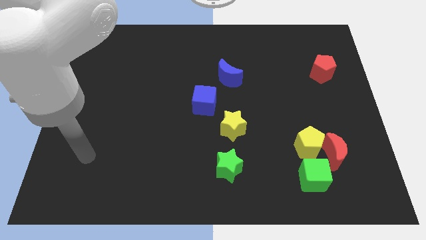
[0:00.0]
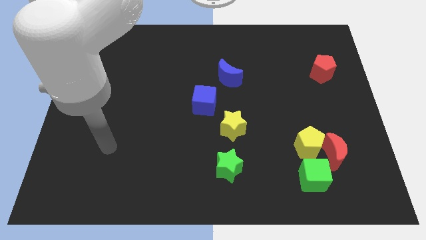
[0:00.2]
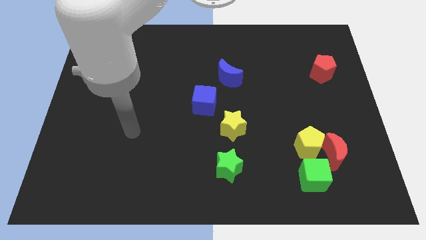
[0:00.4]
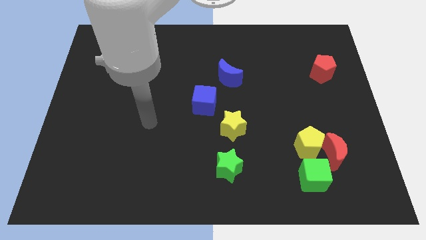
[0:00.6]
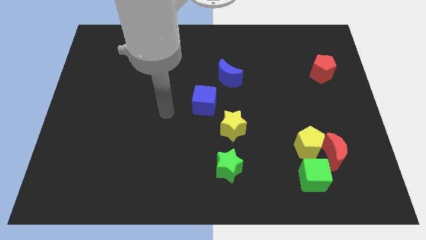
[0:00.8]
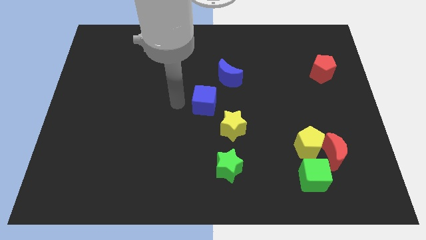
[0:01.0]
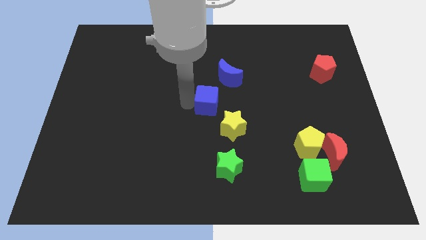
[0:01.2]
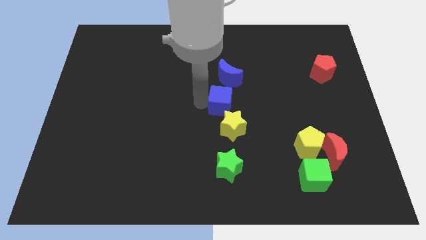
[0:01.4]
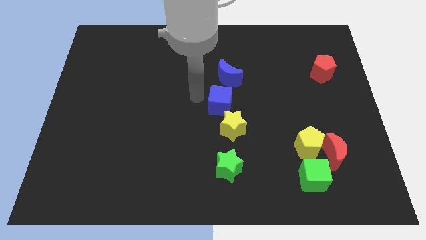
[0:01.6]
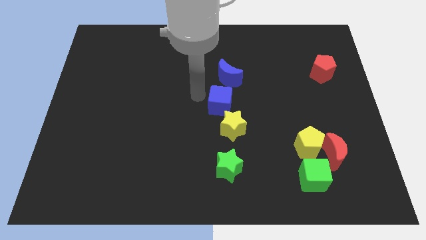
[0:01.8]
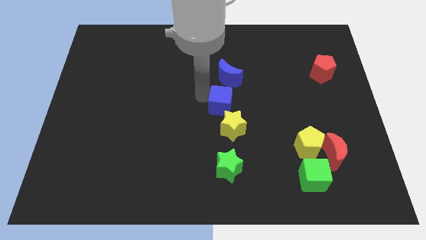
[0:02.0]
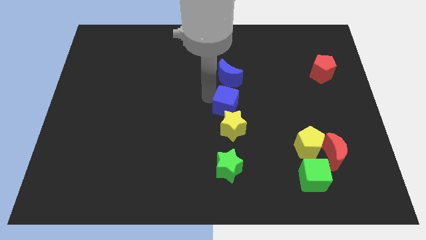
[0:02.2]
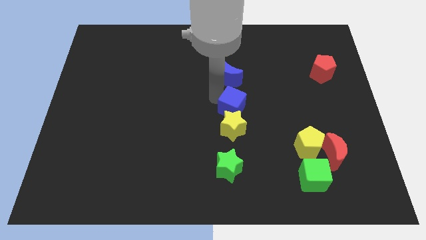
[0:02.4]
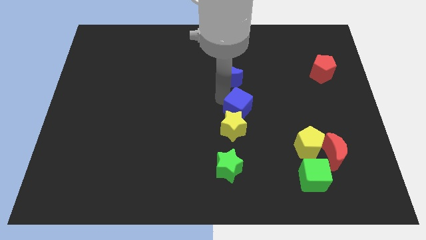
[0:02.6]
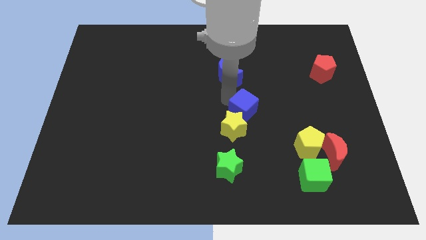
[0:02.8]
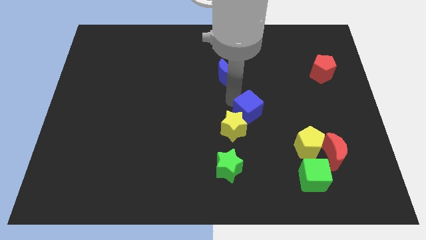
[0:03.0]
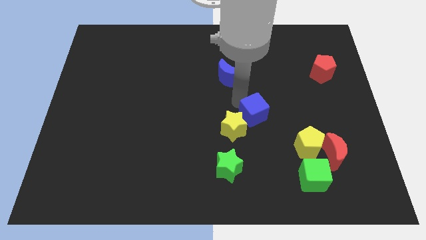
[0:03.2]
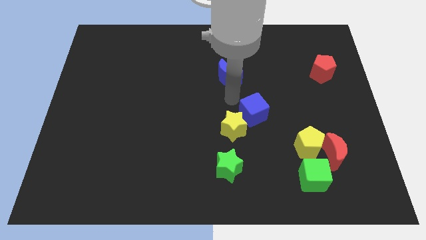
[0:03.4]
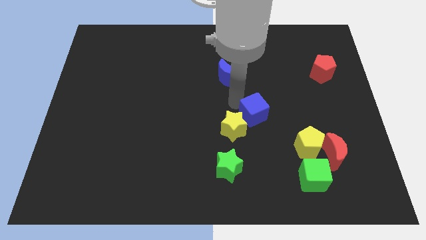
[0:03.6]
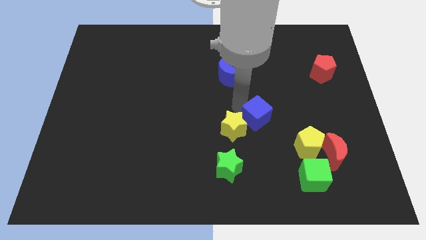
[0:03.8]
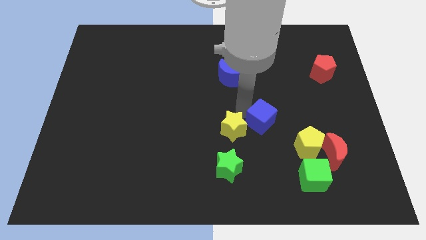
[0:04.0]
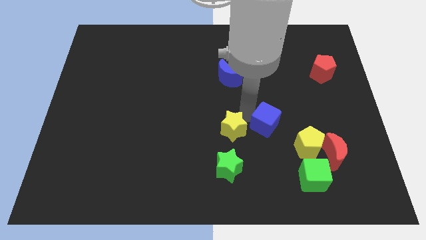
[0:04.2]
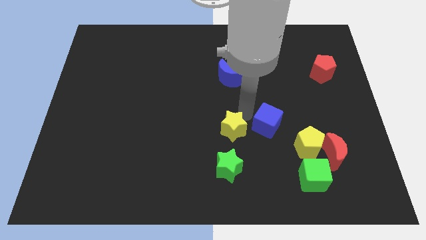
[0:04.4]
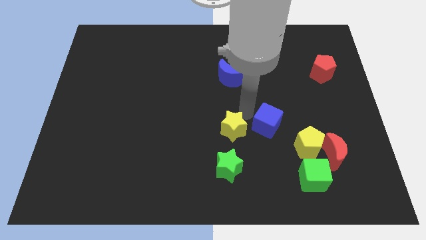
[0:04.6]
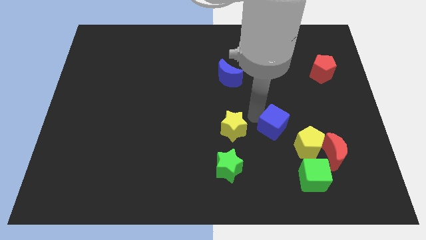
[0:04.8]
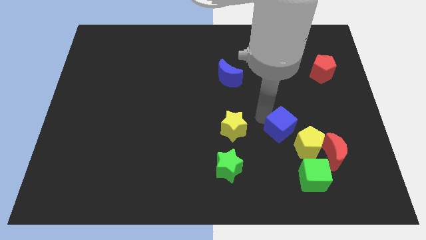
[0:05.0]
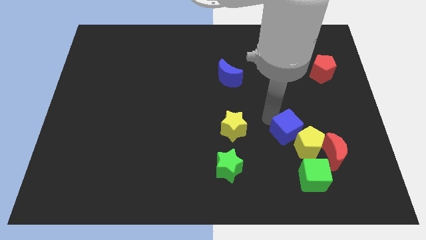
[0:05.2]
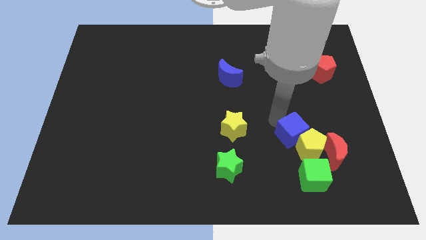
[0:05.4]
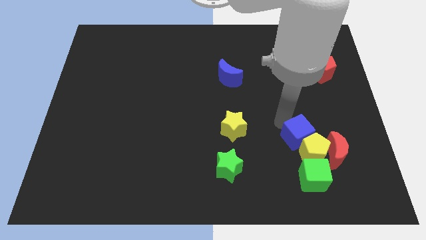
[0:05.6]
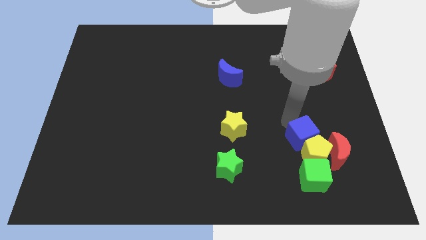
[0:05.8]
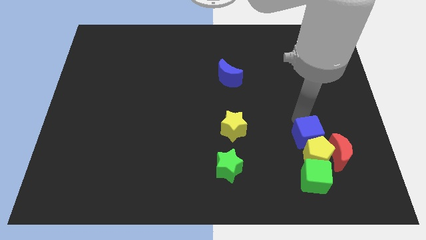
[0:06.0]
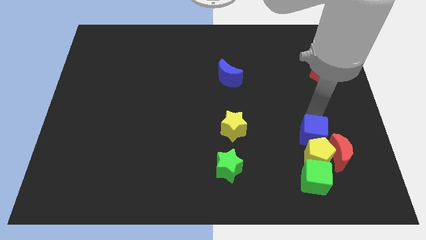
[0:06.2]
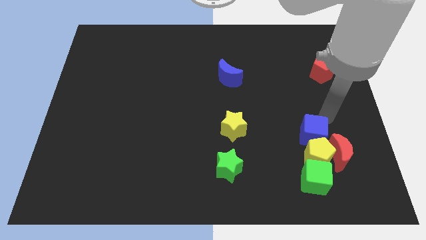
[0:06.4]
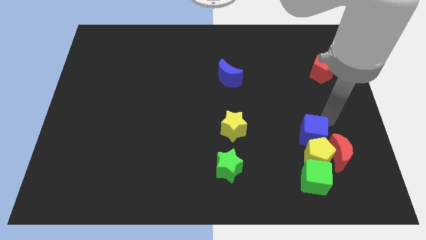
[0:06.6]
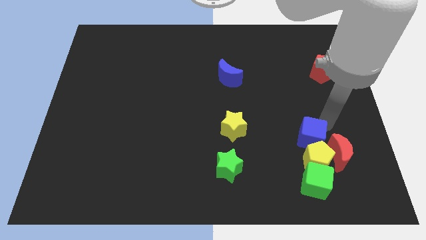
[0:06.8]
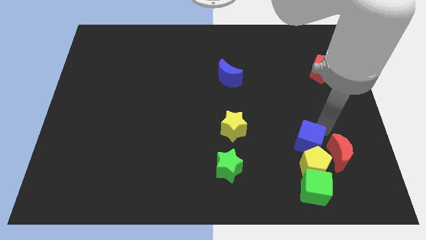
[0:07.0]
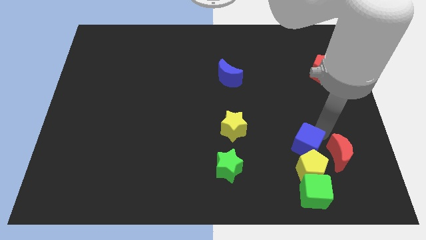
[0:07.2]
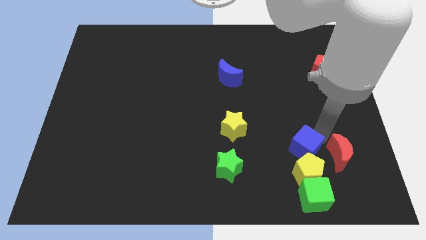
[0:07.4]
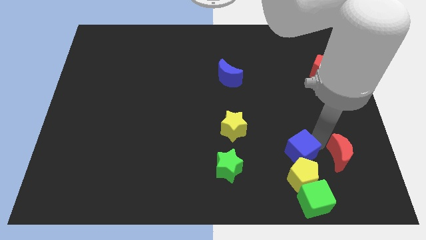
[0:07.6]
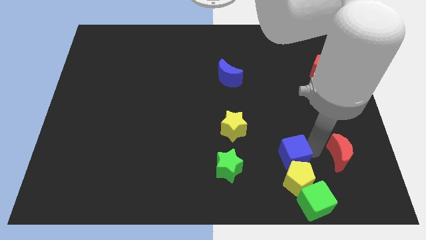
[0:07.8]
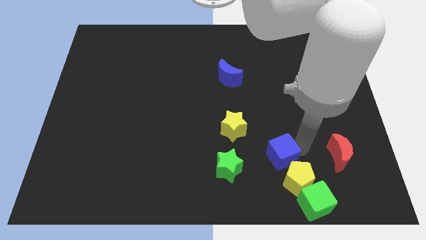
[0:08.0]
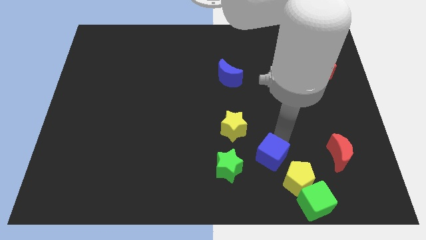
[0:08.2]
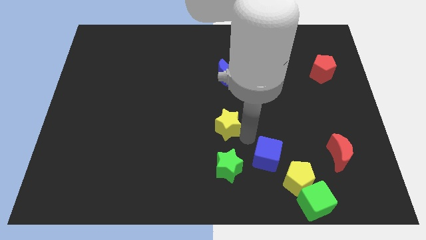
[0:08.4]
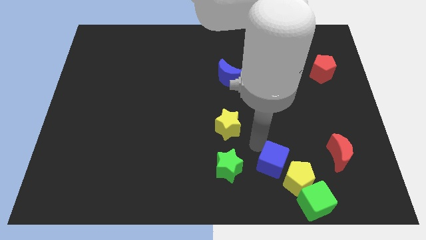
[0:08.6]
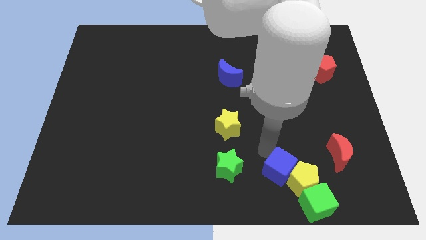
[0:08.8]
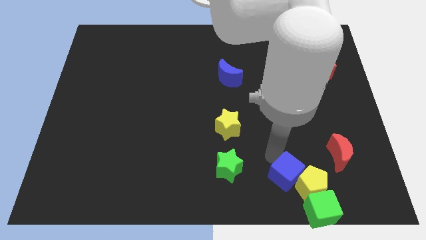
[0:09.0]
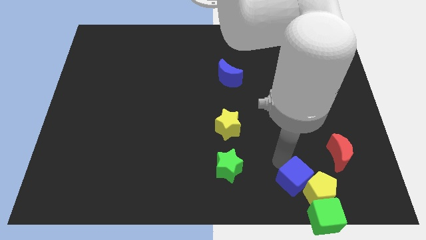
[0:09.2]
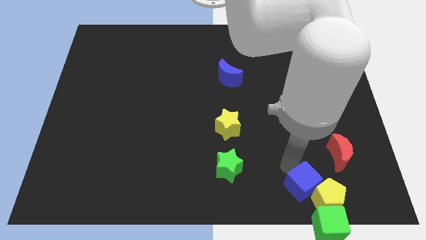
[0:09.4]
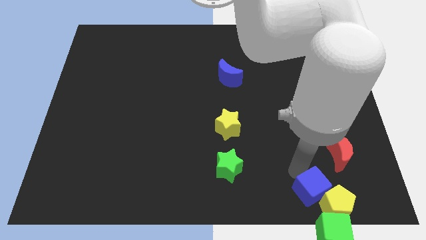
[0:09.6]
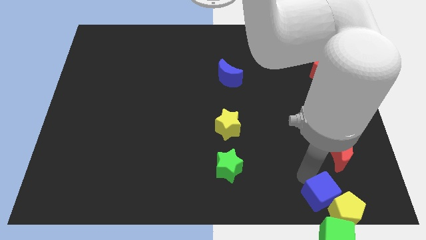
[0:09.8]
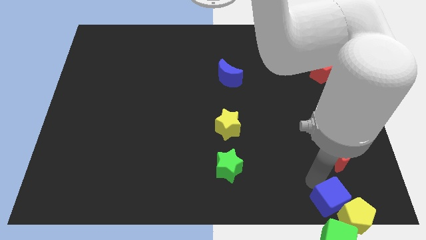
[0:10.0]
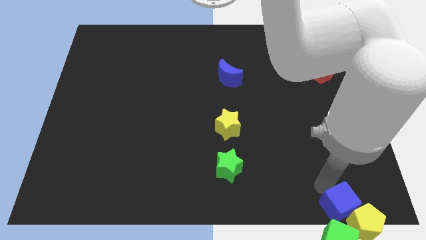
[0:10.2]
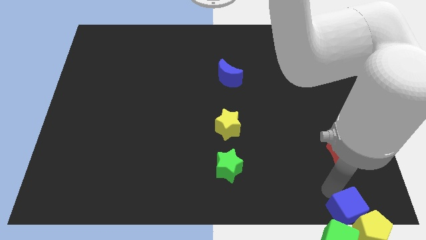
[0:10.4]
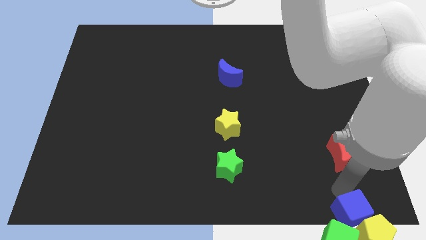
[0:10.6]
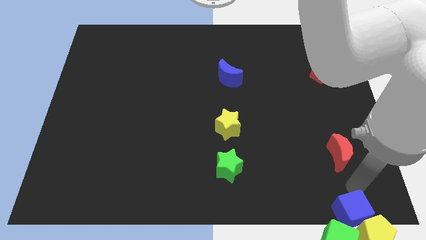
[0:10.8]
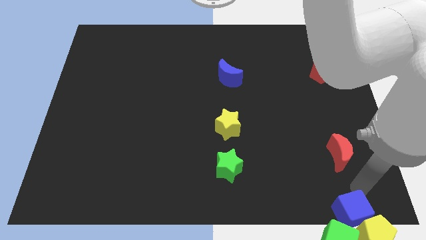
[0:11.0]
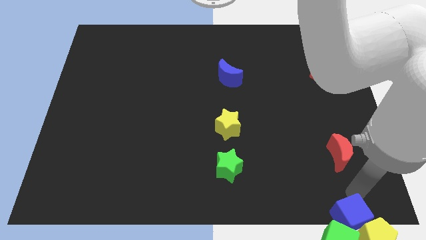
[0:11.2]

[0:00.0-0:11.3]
slide the blue cube to the green cube
